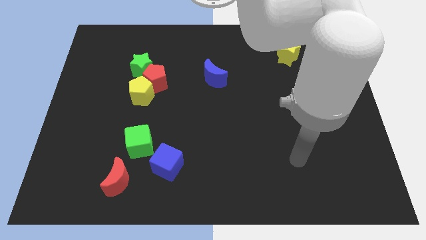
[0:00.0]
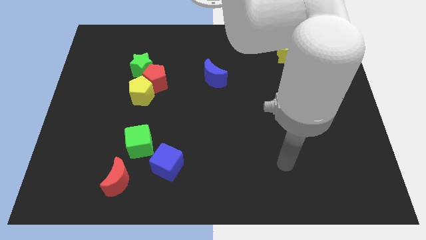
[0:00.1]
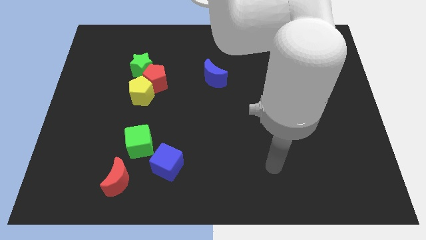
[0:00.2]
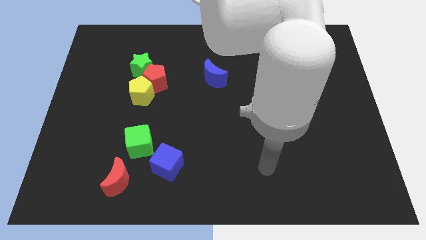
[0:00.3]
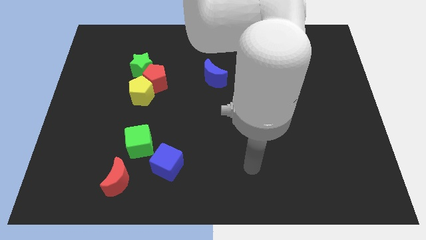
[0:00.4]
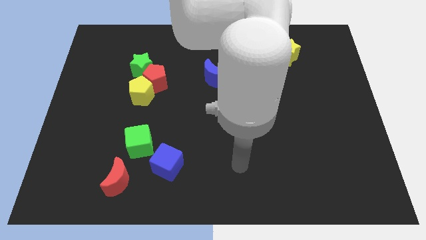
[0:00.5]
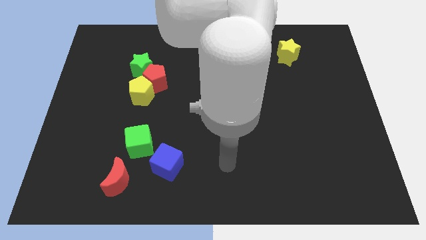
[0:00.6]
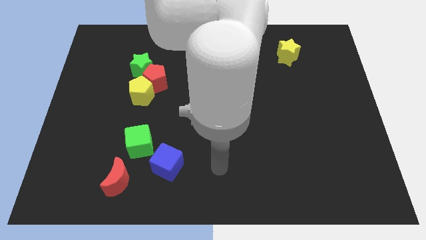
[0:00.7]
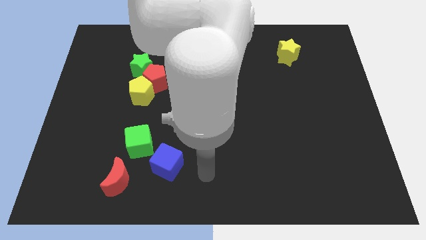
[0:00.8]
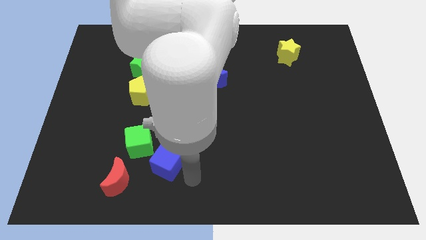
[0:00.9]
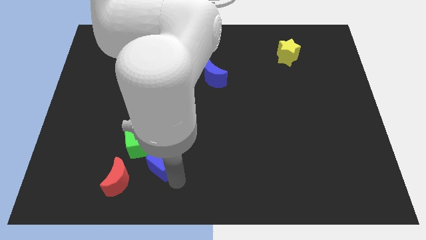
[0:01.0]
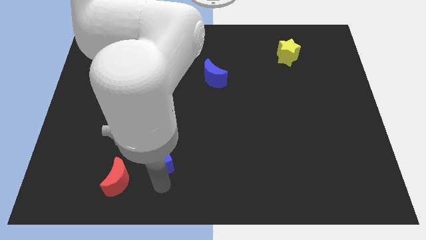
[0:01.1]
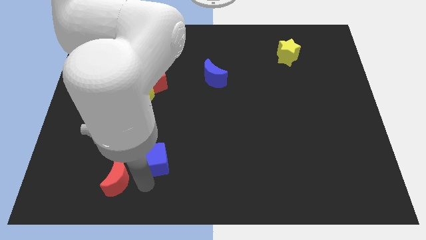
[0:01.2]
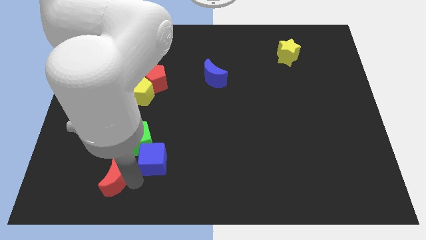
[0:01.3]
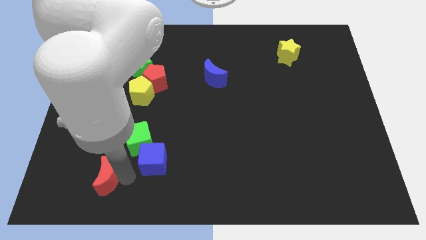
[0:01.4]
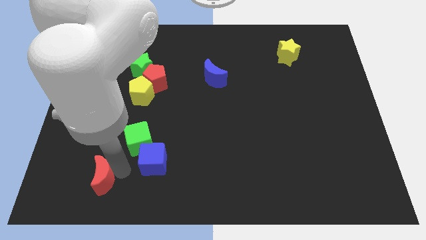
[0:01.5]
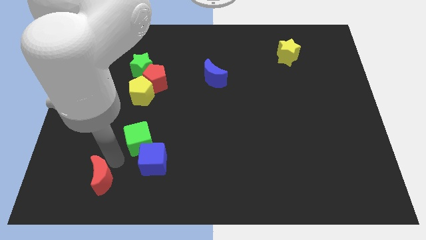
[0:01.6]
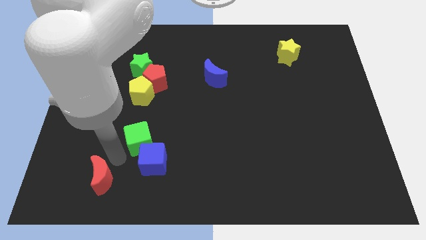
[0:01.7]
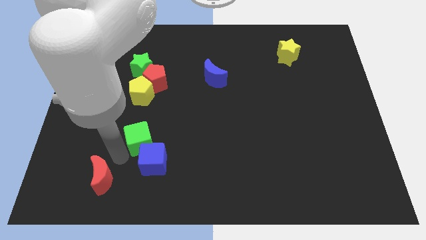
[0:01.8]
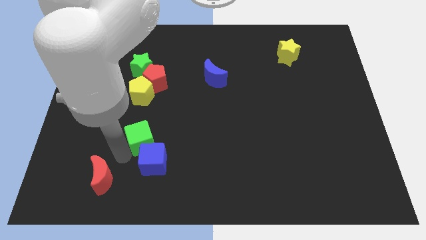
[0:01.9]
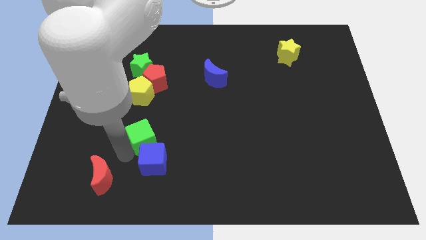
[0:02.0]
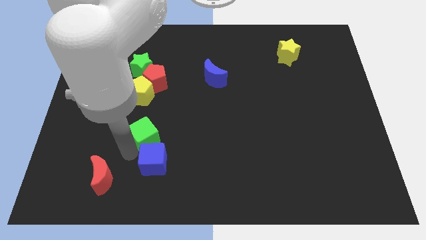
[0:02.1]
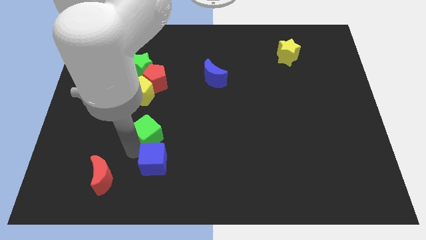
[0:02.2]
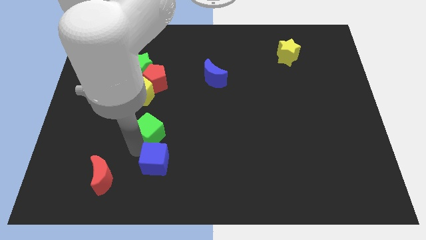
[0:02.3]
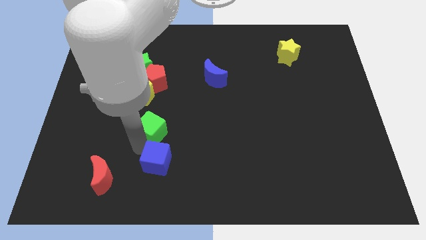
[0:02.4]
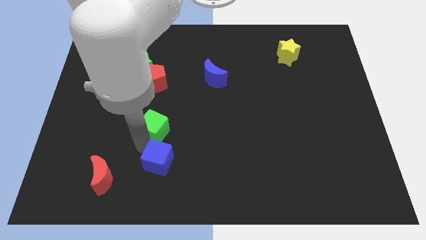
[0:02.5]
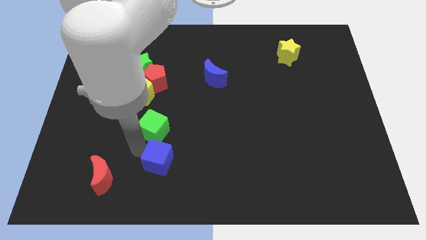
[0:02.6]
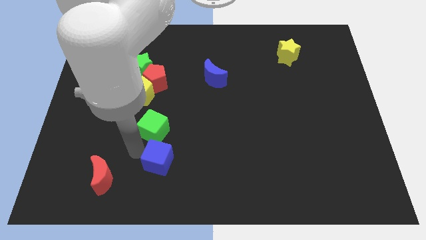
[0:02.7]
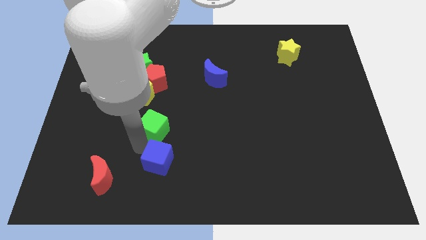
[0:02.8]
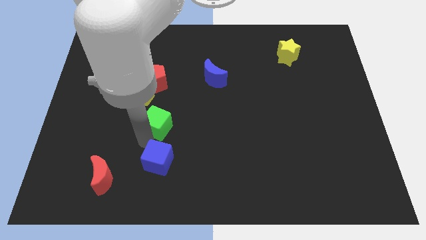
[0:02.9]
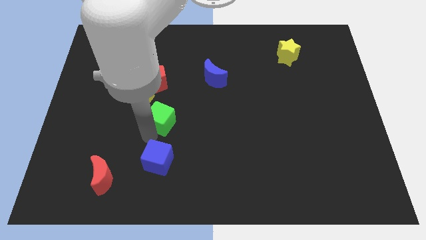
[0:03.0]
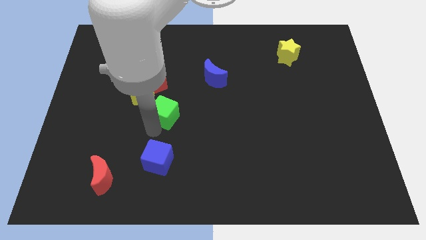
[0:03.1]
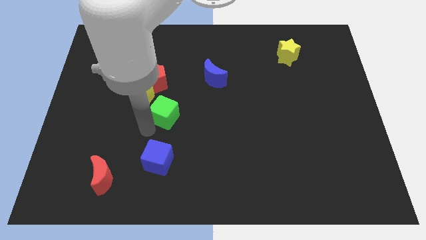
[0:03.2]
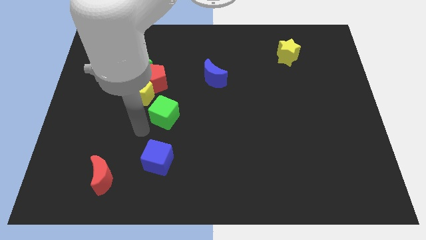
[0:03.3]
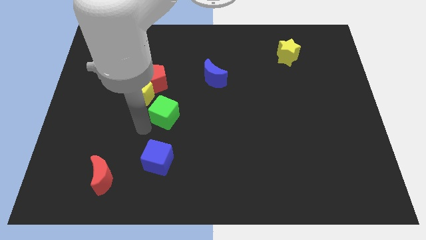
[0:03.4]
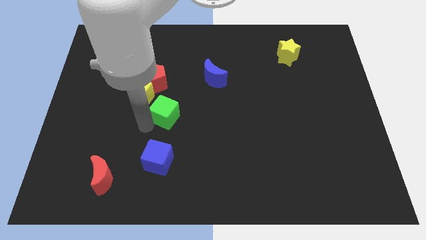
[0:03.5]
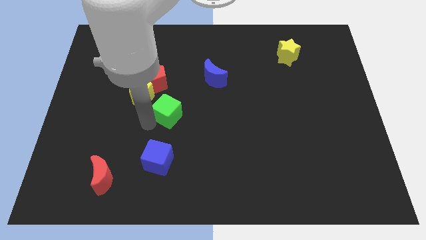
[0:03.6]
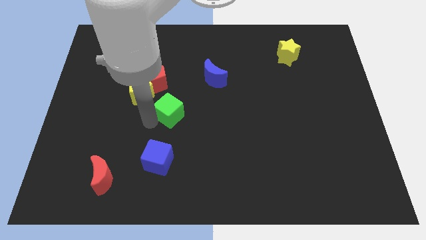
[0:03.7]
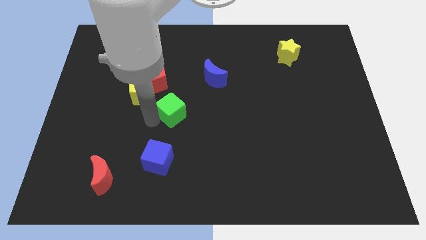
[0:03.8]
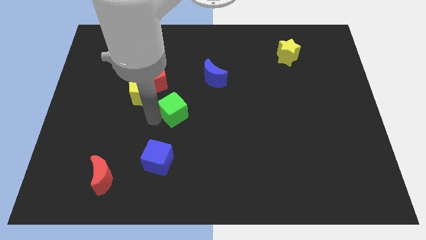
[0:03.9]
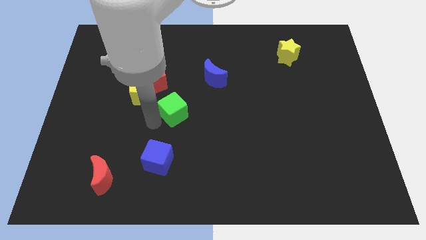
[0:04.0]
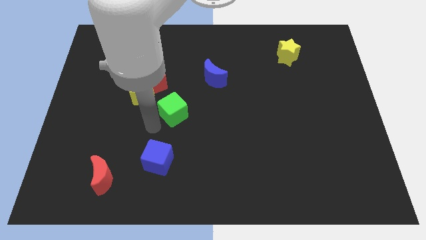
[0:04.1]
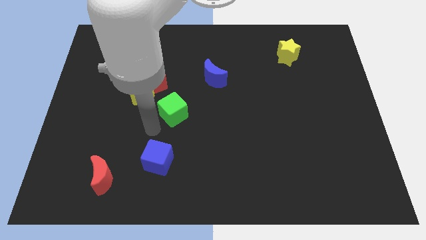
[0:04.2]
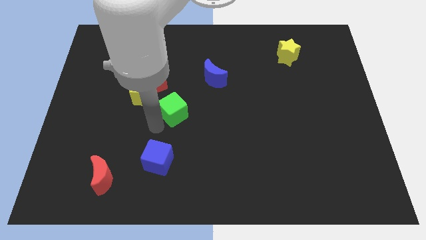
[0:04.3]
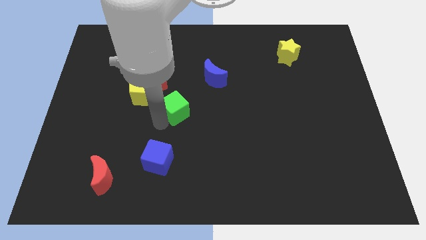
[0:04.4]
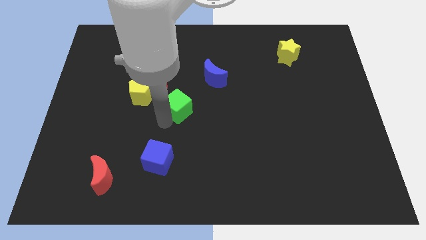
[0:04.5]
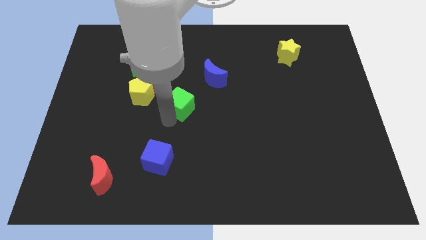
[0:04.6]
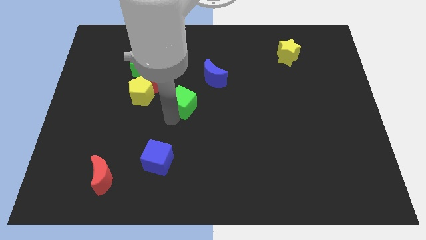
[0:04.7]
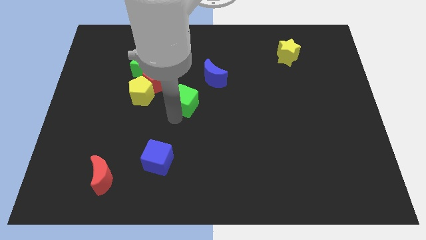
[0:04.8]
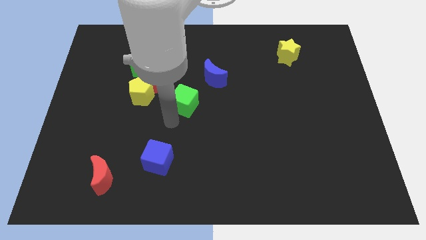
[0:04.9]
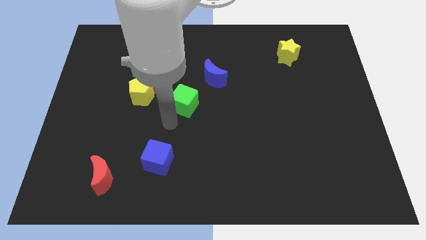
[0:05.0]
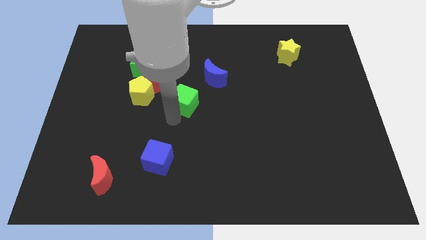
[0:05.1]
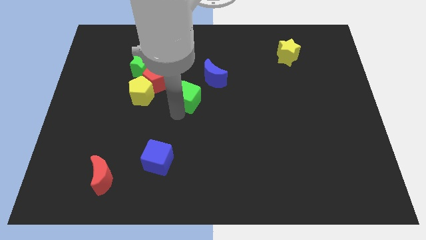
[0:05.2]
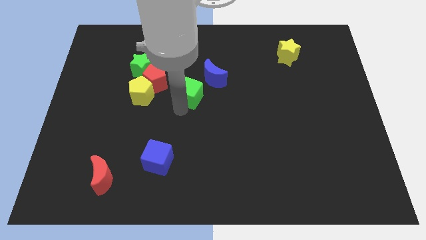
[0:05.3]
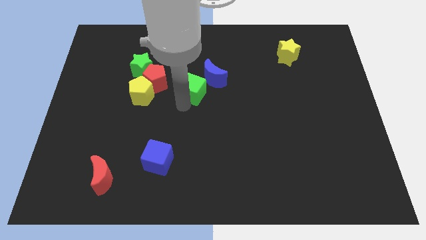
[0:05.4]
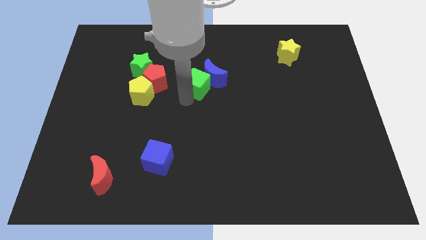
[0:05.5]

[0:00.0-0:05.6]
slide the green cube close to the blue moon
